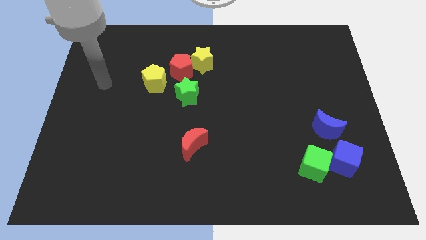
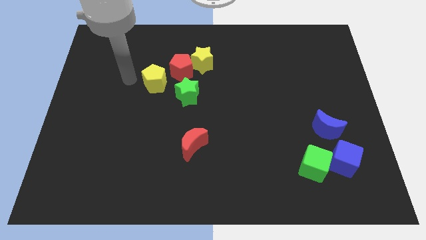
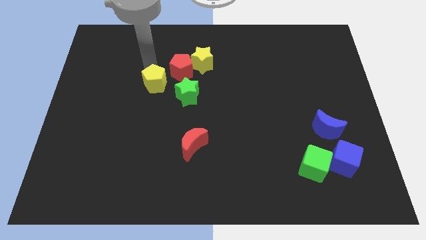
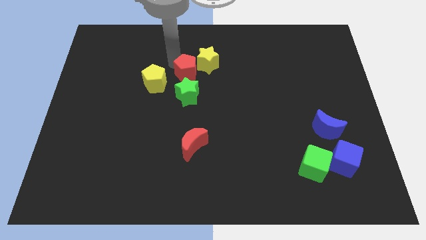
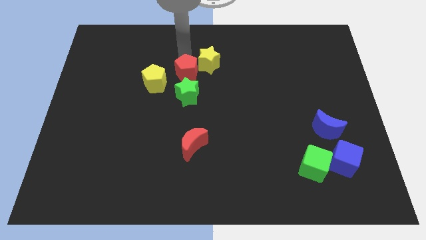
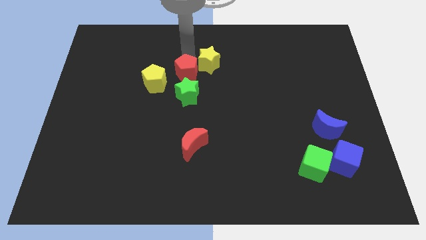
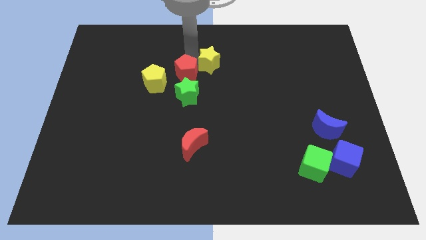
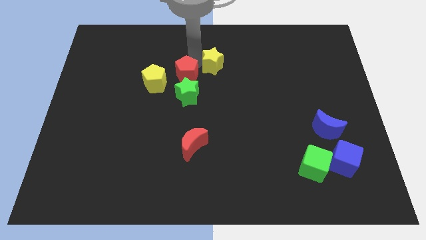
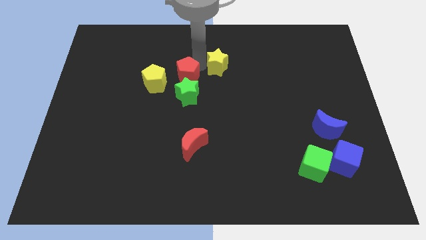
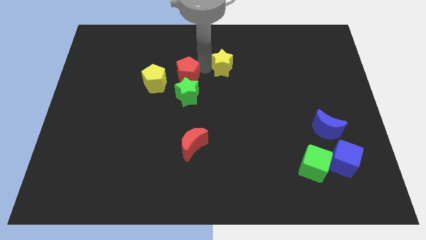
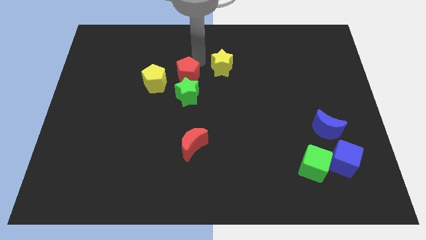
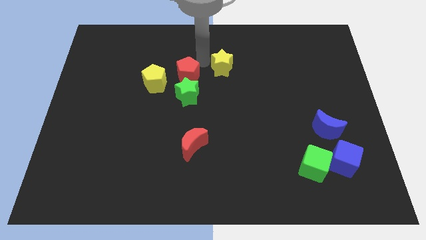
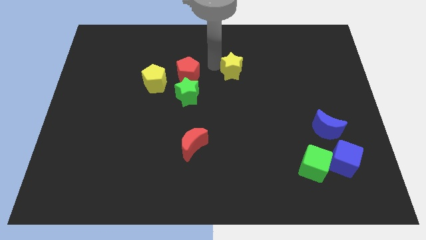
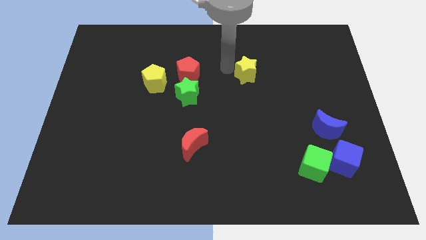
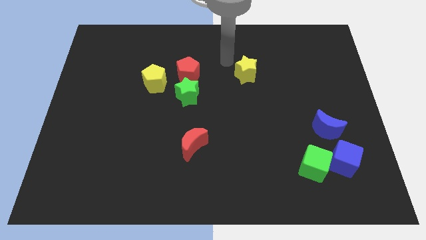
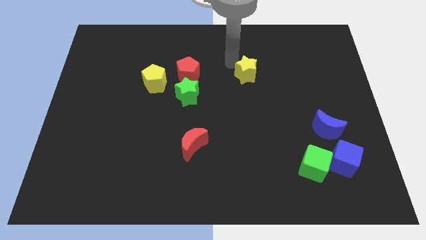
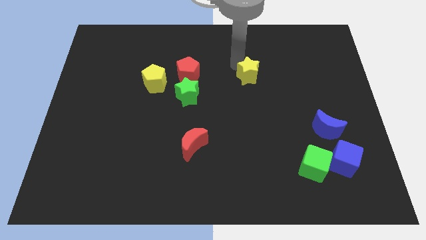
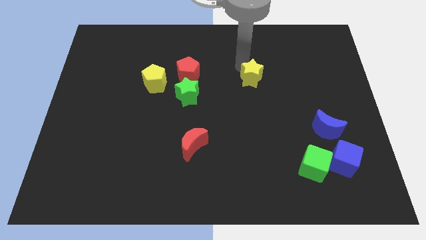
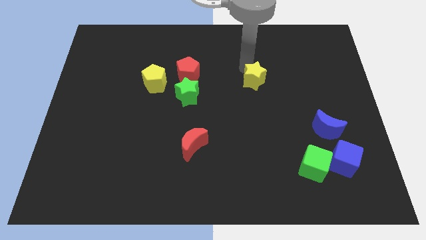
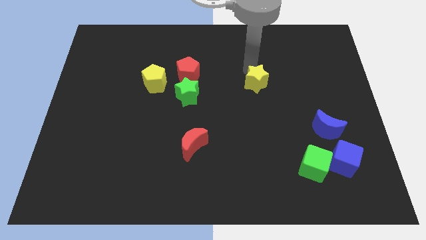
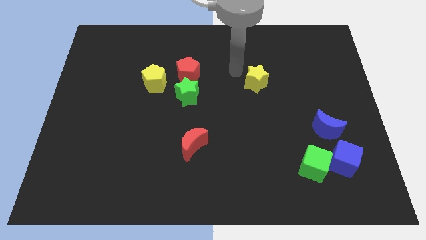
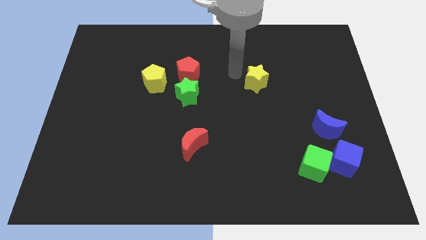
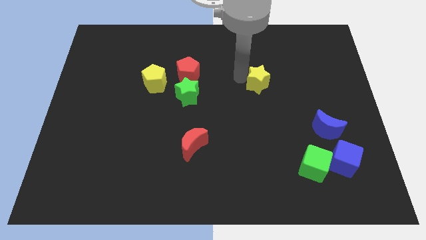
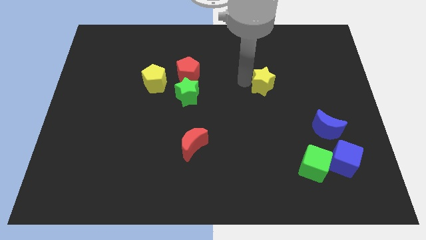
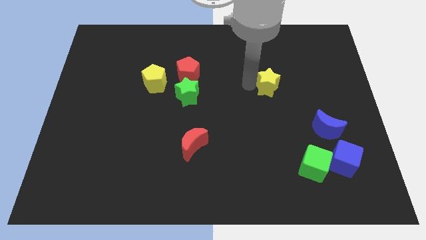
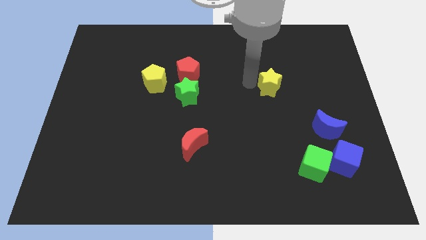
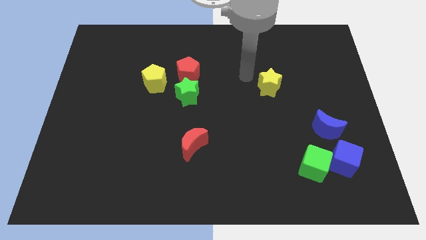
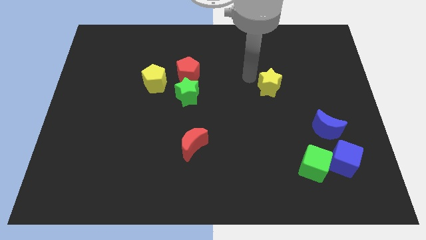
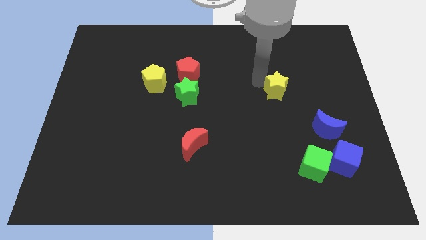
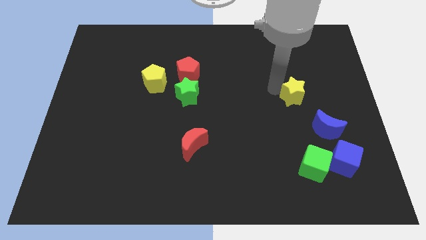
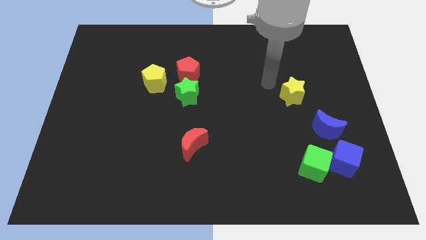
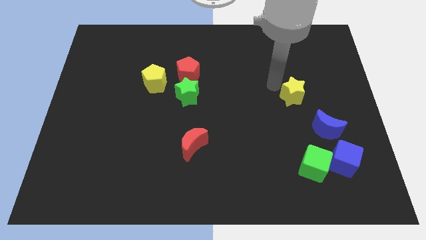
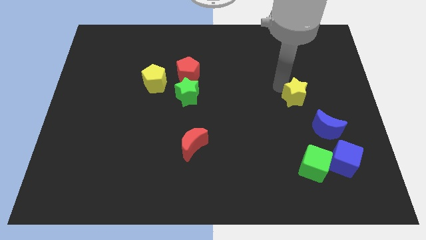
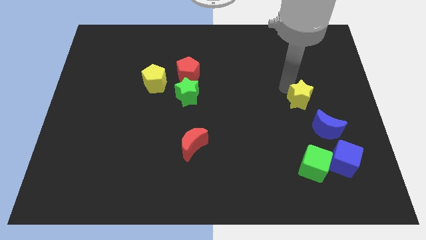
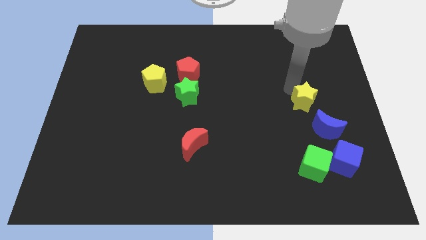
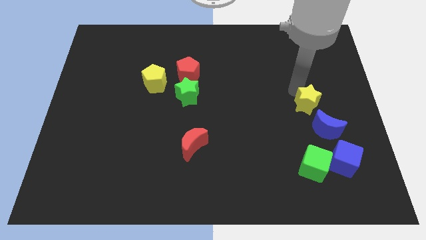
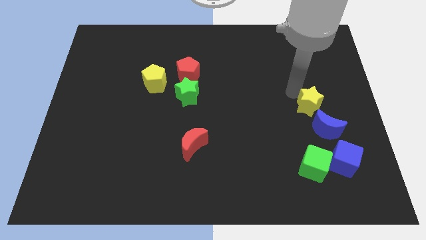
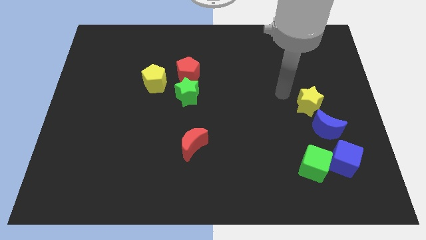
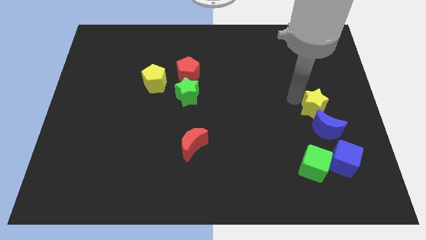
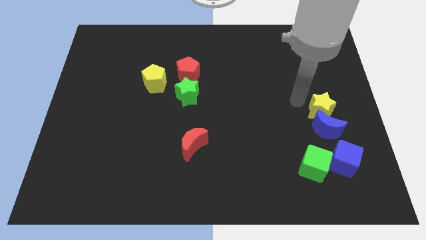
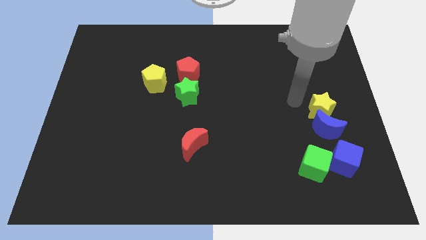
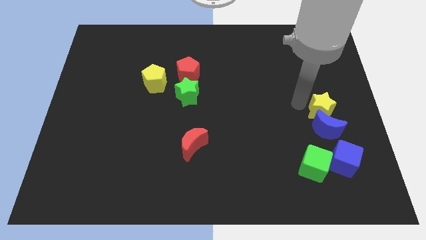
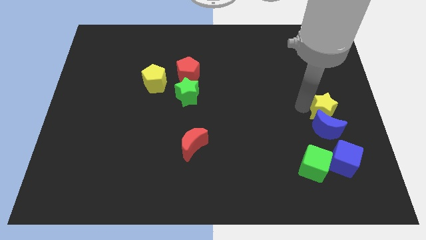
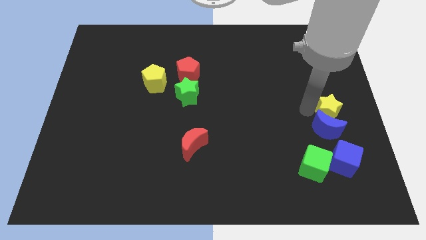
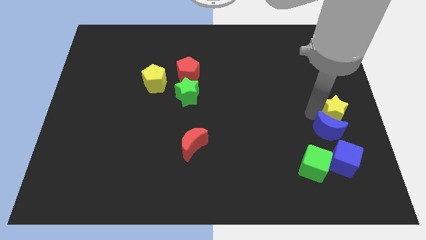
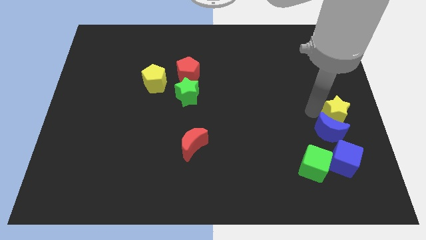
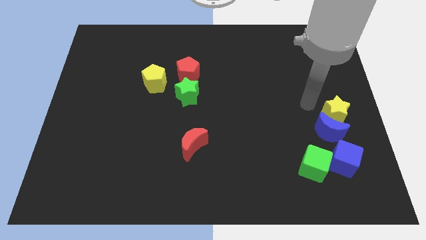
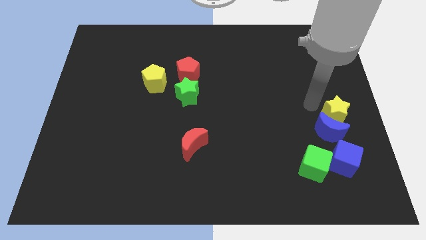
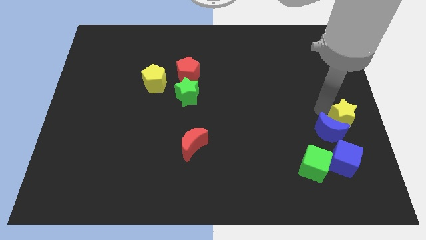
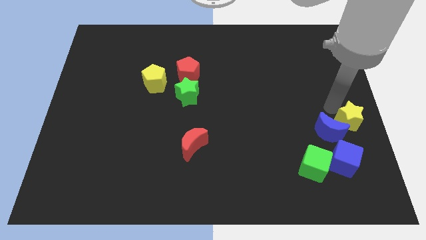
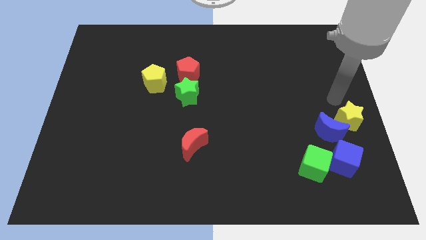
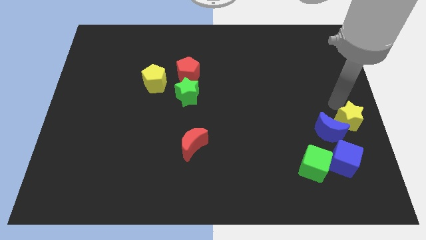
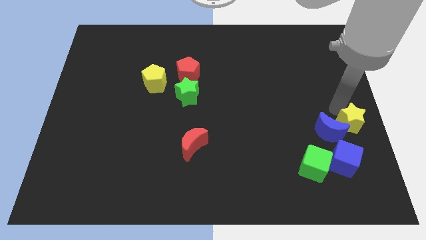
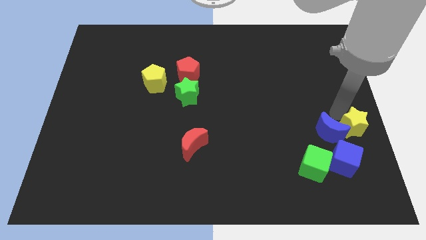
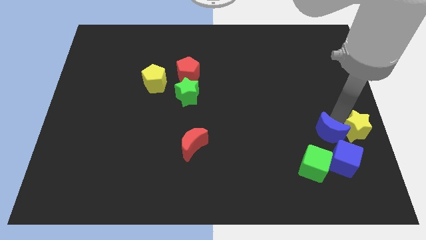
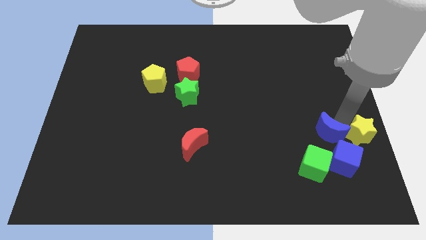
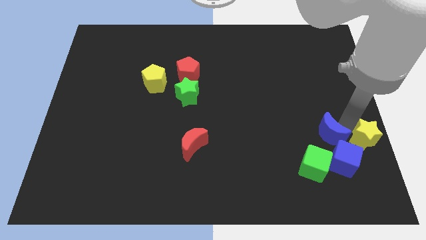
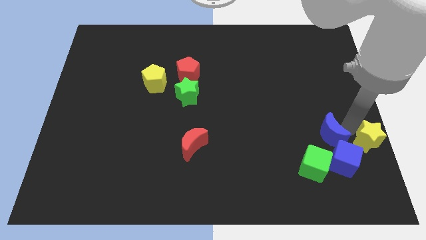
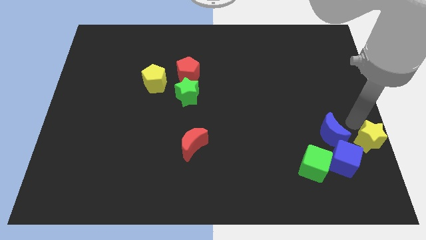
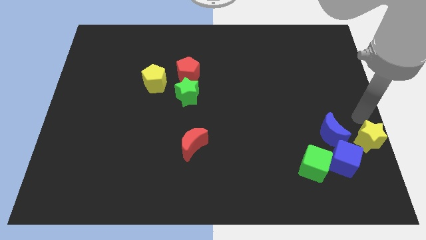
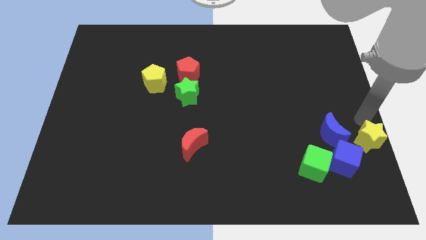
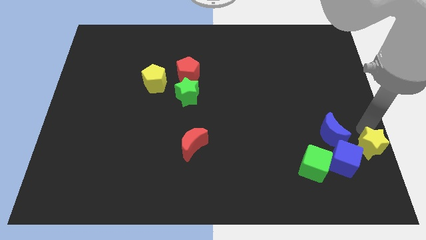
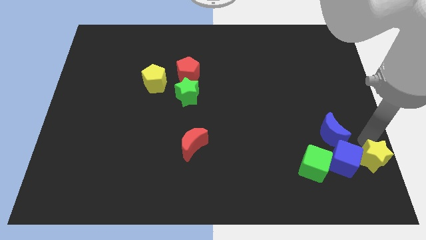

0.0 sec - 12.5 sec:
move the yellow star to the bottom right corner
